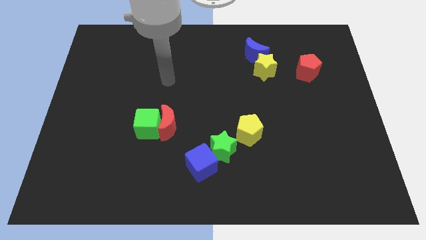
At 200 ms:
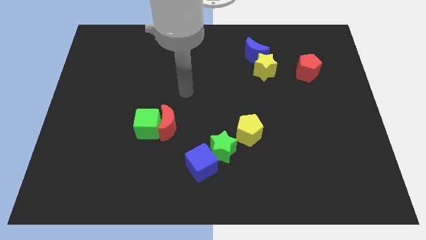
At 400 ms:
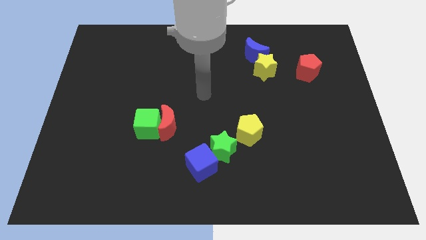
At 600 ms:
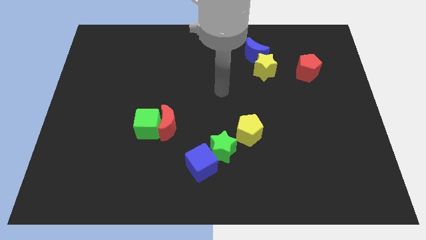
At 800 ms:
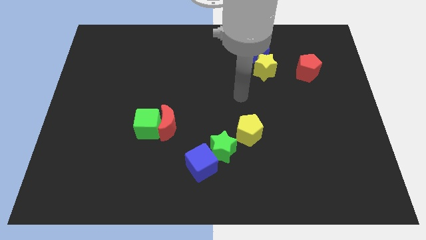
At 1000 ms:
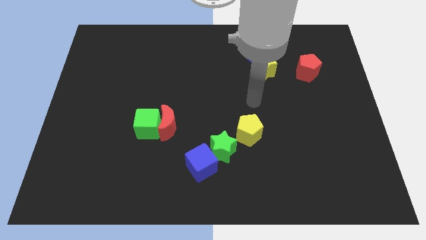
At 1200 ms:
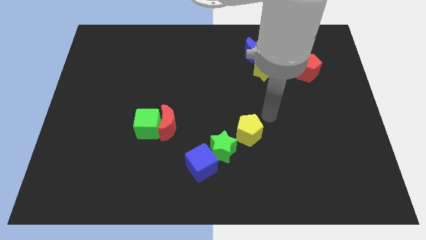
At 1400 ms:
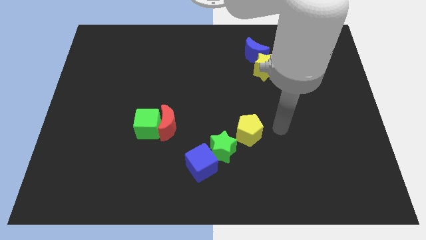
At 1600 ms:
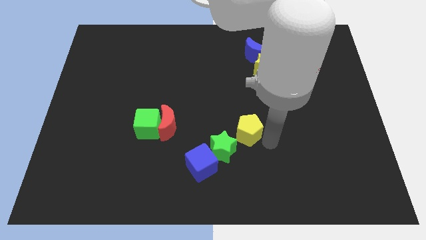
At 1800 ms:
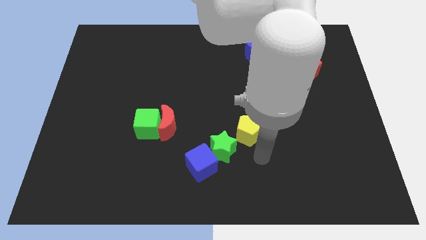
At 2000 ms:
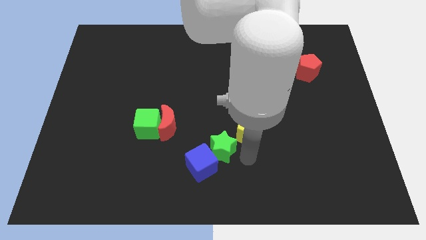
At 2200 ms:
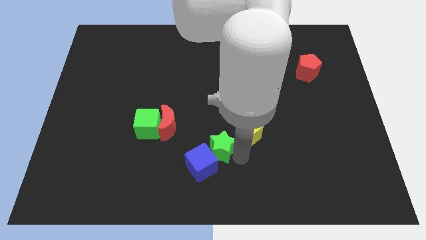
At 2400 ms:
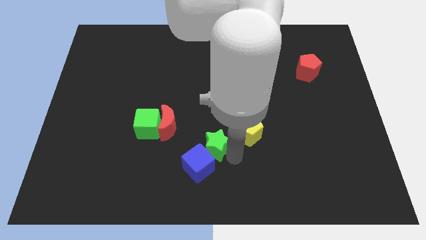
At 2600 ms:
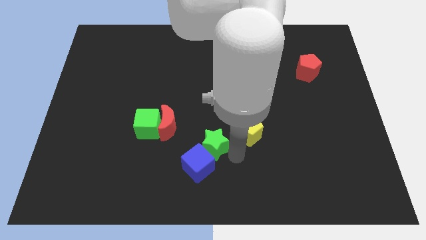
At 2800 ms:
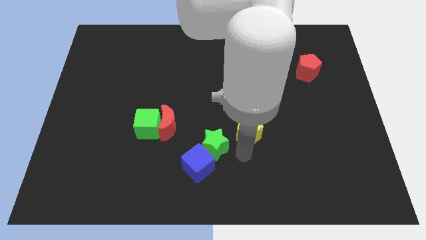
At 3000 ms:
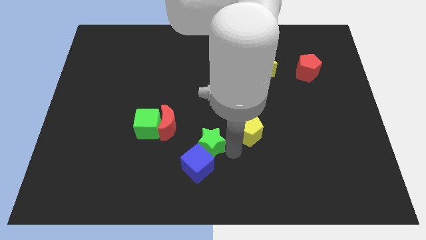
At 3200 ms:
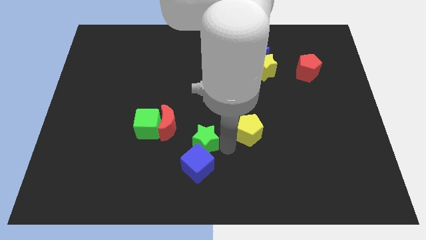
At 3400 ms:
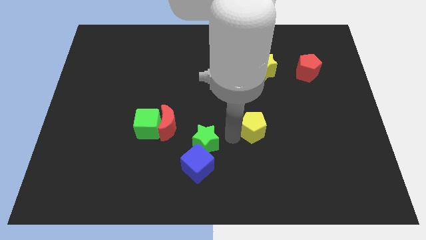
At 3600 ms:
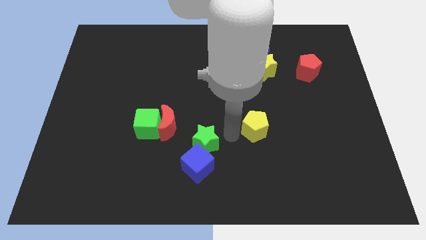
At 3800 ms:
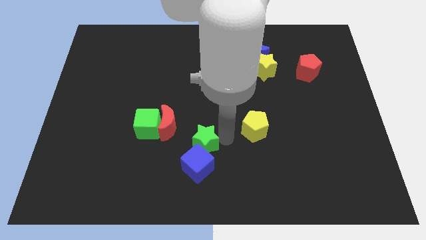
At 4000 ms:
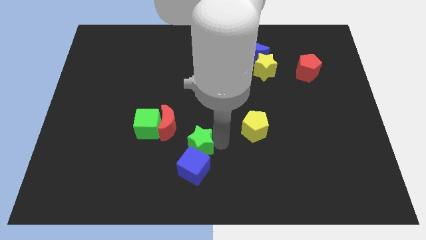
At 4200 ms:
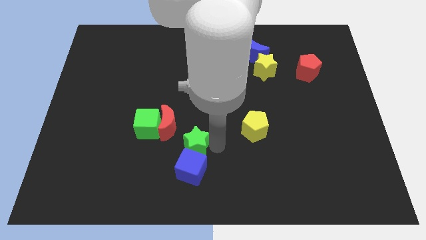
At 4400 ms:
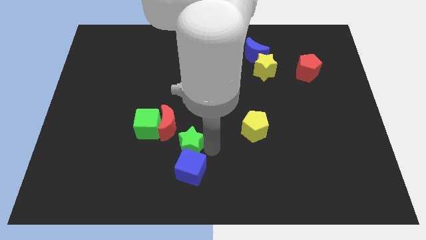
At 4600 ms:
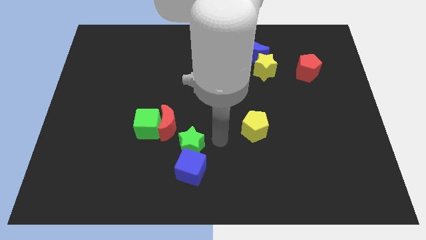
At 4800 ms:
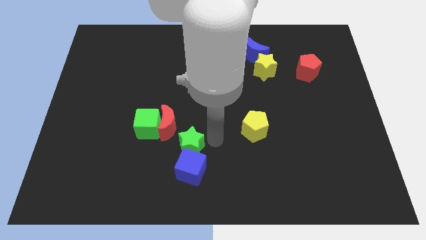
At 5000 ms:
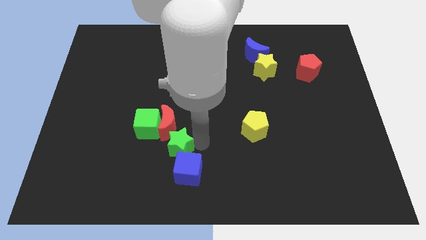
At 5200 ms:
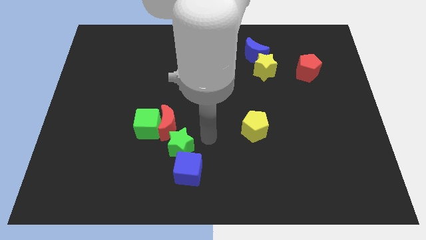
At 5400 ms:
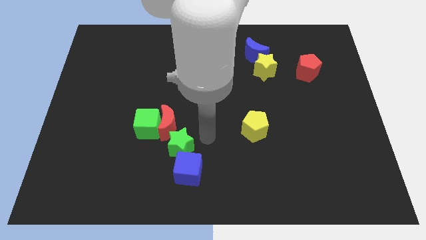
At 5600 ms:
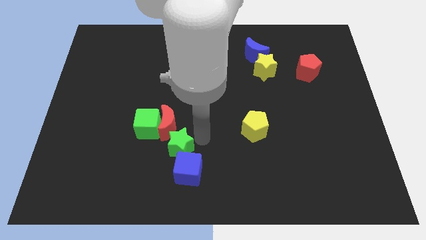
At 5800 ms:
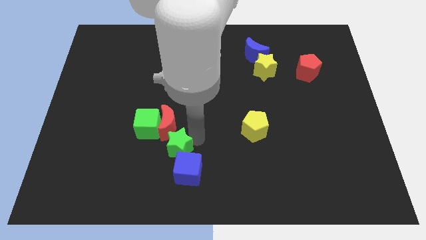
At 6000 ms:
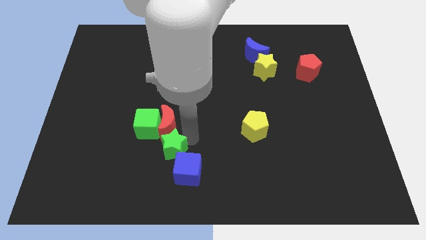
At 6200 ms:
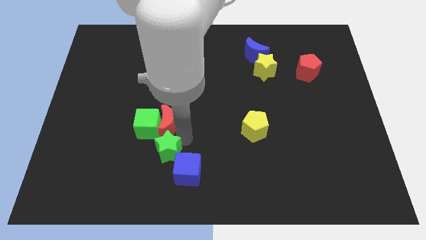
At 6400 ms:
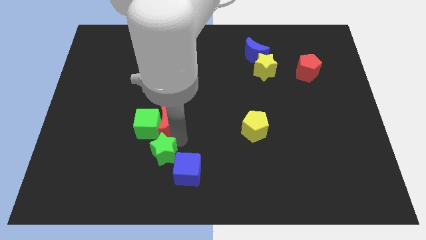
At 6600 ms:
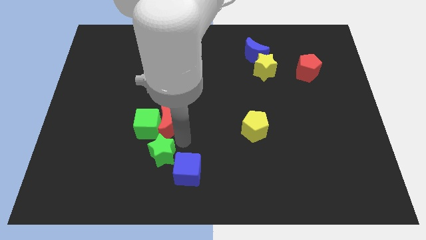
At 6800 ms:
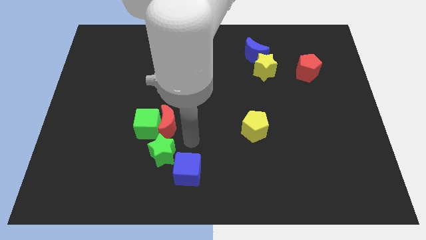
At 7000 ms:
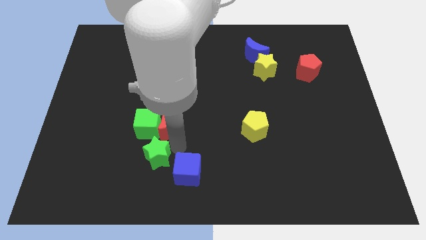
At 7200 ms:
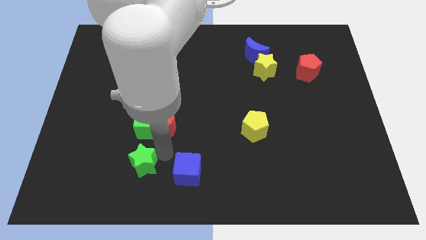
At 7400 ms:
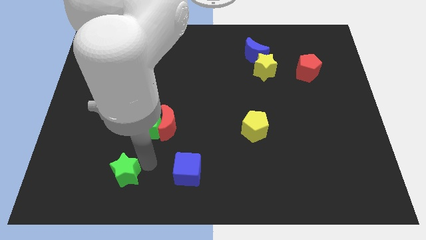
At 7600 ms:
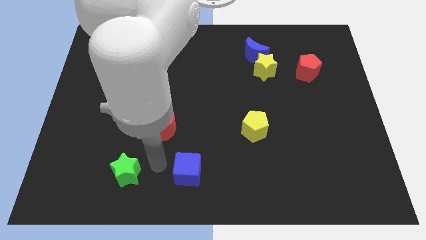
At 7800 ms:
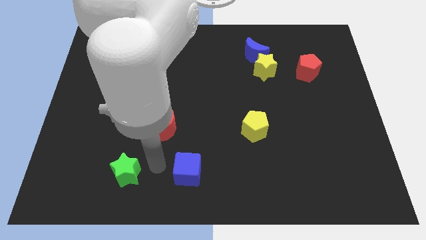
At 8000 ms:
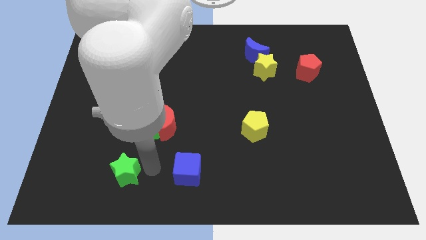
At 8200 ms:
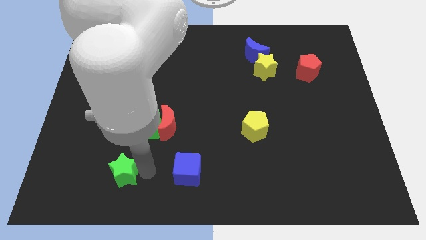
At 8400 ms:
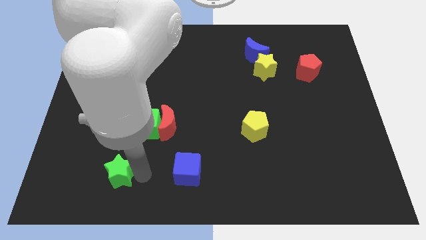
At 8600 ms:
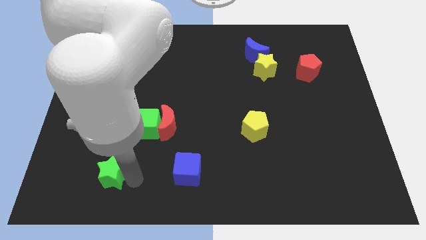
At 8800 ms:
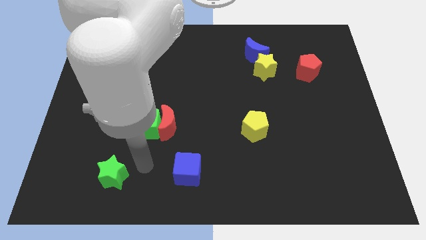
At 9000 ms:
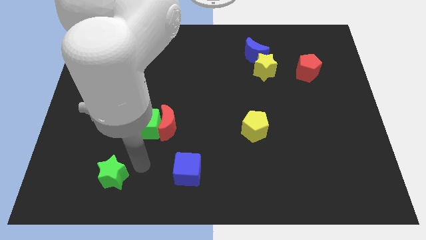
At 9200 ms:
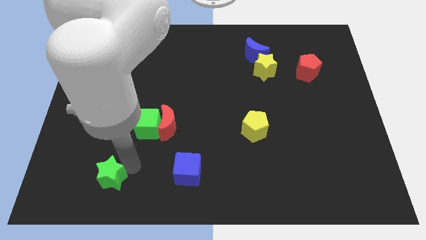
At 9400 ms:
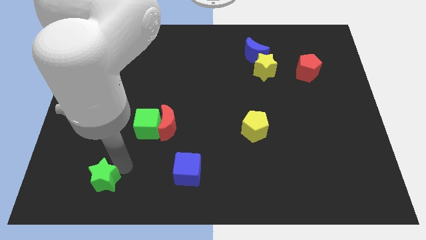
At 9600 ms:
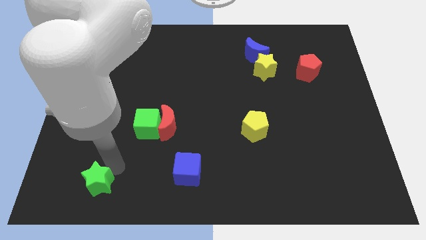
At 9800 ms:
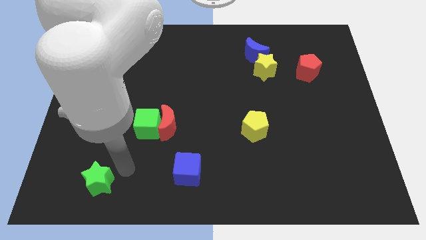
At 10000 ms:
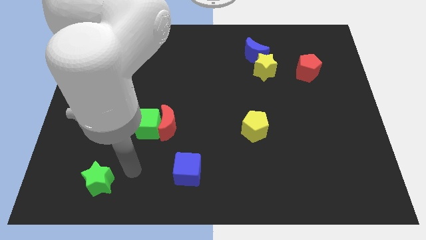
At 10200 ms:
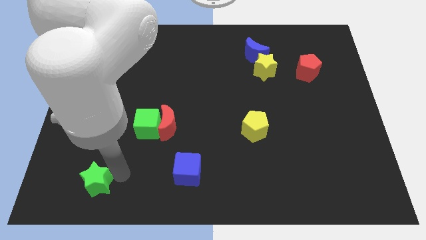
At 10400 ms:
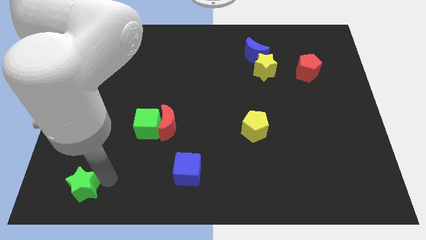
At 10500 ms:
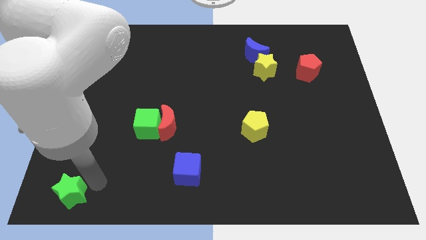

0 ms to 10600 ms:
push the green star to the bottom left of the board
